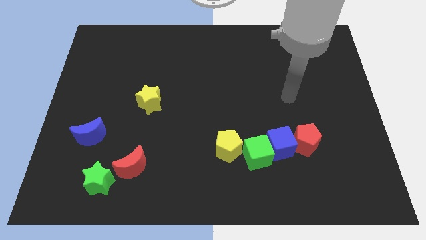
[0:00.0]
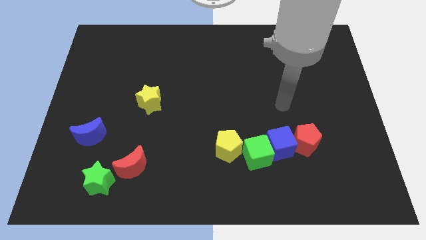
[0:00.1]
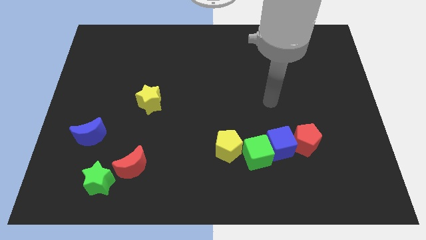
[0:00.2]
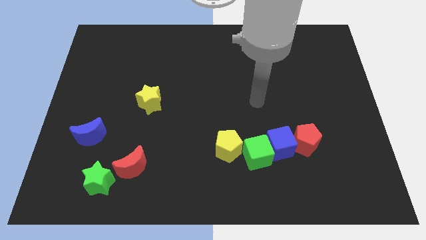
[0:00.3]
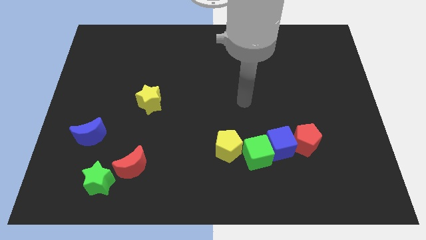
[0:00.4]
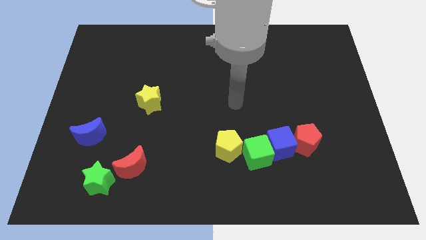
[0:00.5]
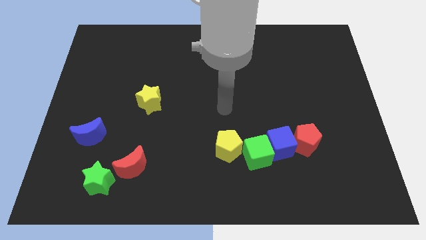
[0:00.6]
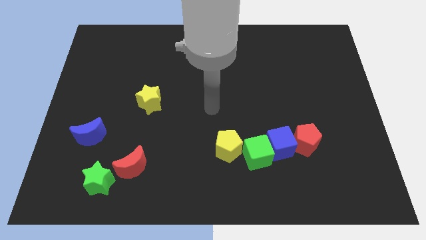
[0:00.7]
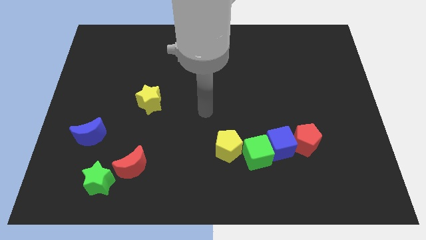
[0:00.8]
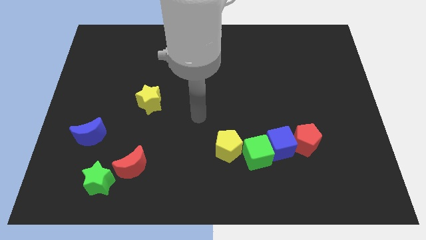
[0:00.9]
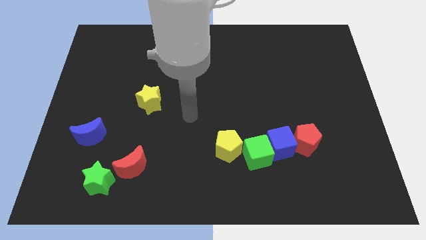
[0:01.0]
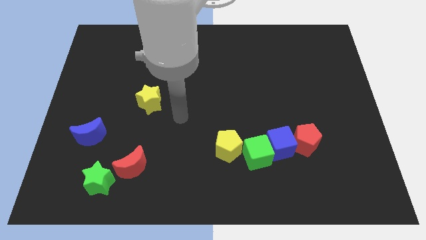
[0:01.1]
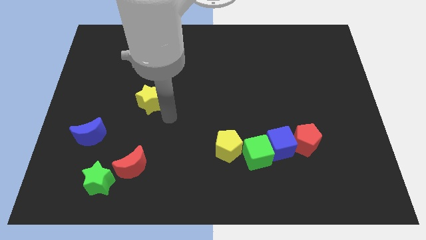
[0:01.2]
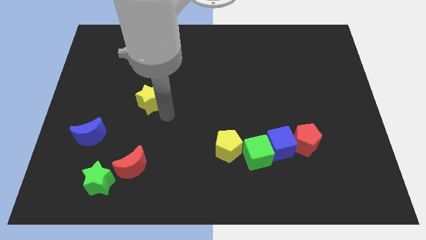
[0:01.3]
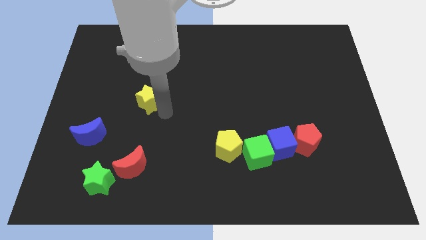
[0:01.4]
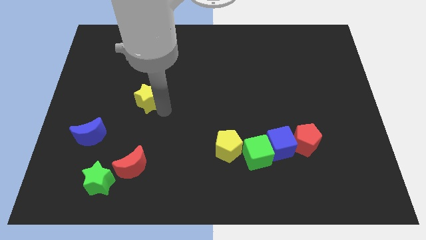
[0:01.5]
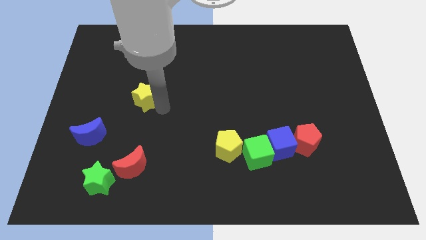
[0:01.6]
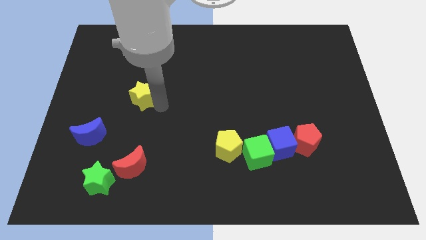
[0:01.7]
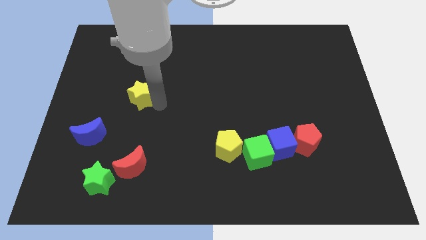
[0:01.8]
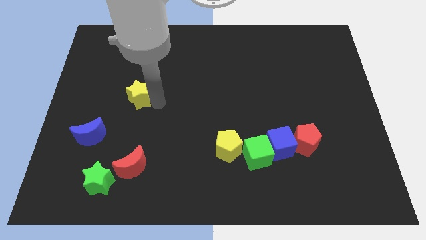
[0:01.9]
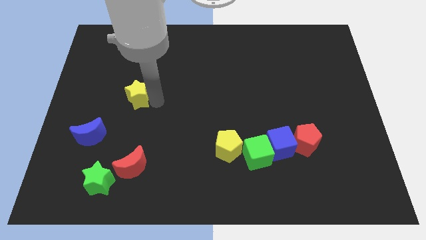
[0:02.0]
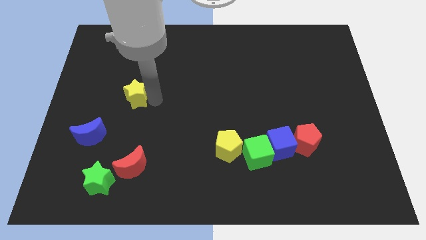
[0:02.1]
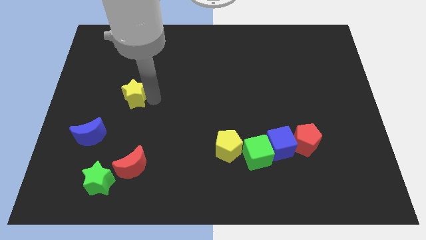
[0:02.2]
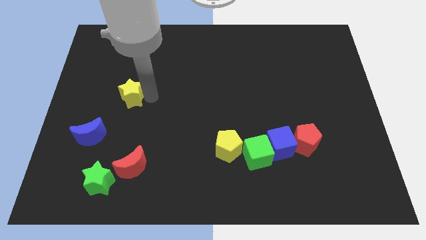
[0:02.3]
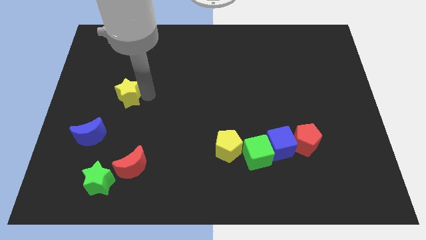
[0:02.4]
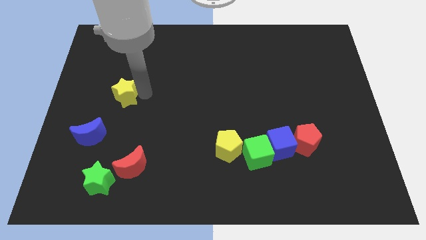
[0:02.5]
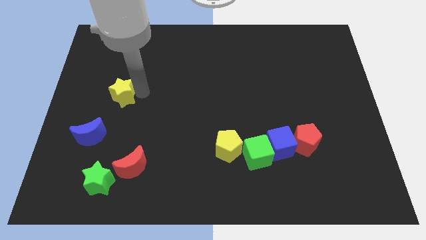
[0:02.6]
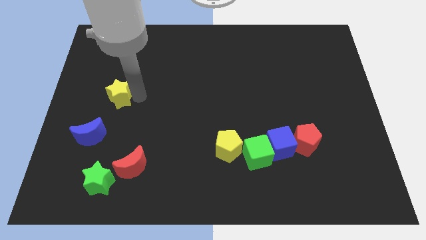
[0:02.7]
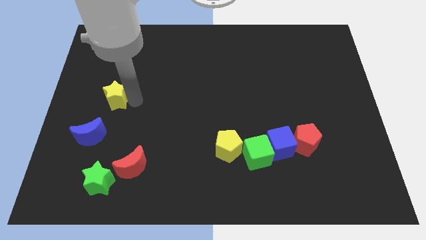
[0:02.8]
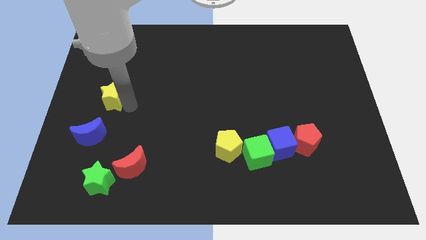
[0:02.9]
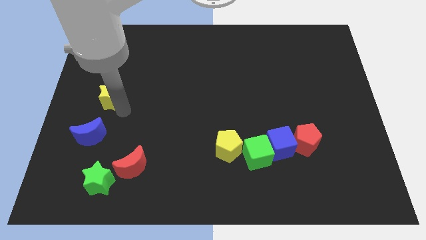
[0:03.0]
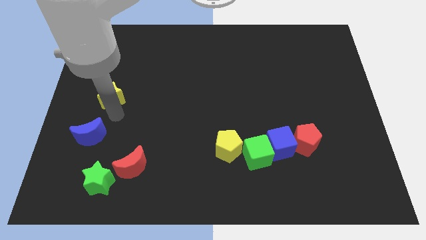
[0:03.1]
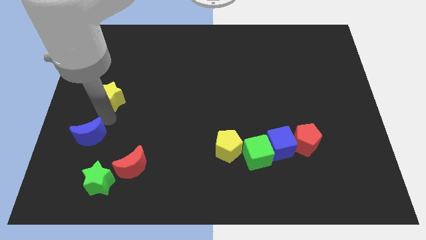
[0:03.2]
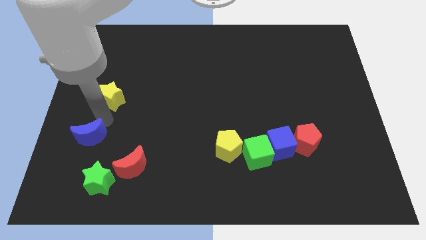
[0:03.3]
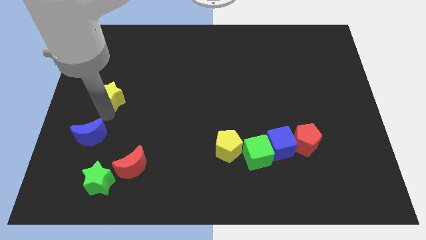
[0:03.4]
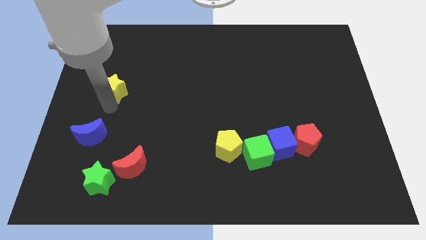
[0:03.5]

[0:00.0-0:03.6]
move the yellow star upwards and then left a little

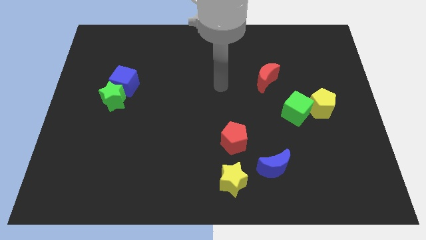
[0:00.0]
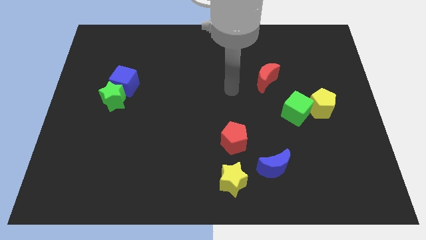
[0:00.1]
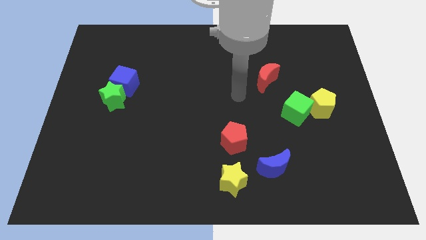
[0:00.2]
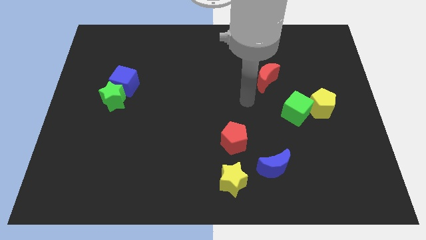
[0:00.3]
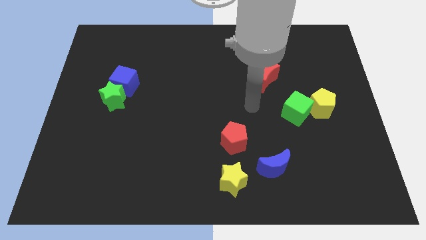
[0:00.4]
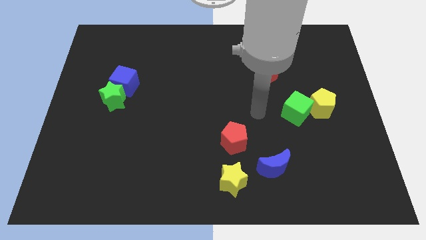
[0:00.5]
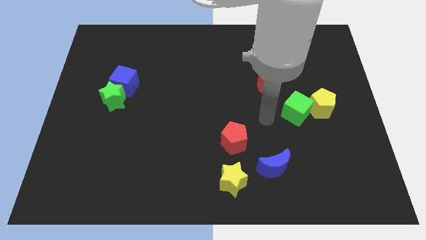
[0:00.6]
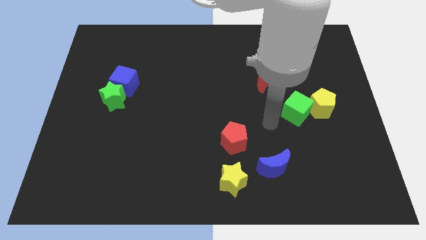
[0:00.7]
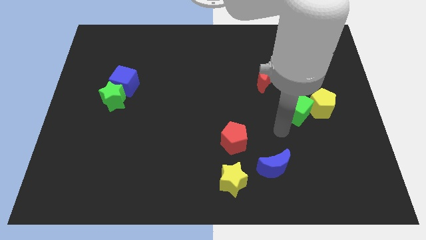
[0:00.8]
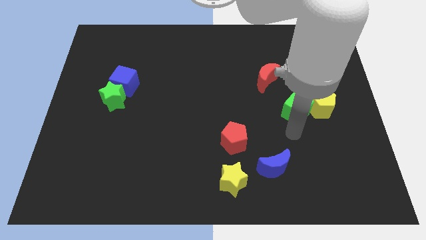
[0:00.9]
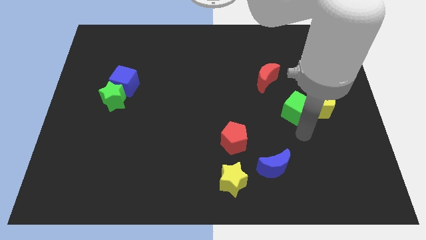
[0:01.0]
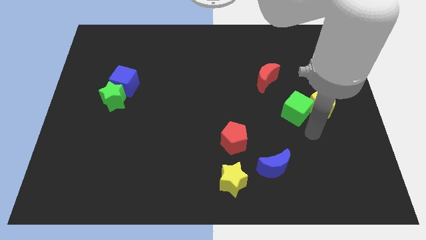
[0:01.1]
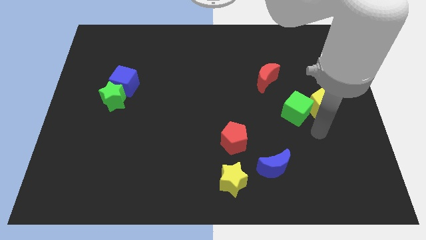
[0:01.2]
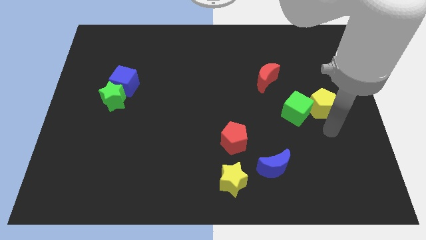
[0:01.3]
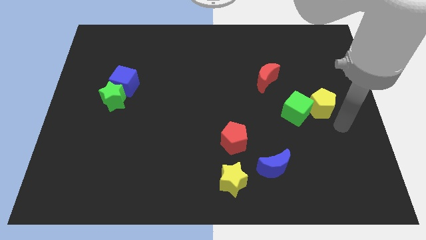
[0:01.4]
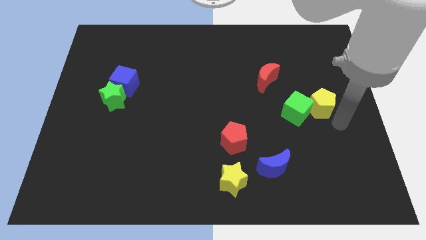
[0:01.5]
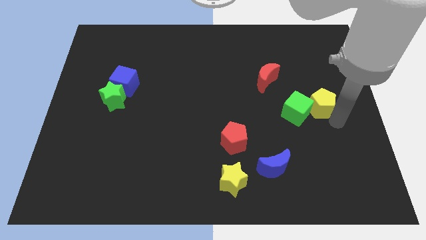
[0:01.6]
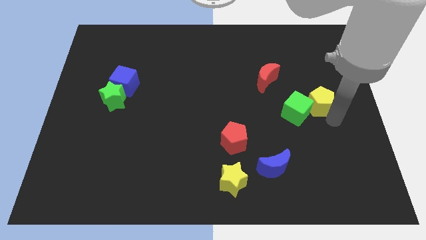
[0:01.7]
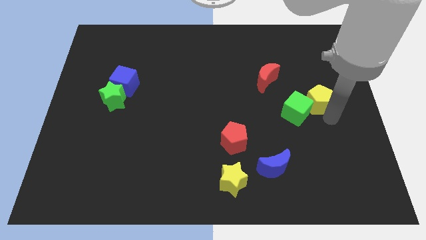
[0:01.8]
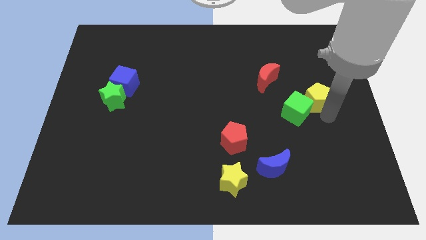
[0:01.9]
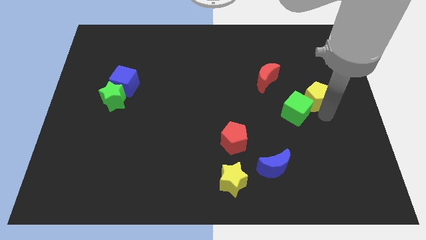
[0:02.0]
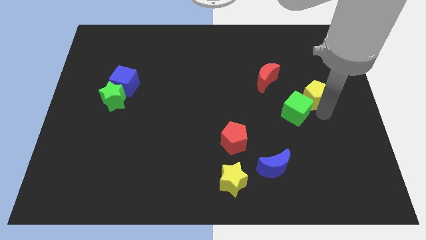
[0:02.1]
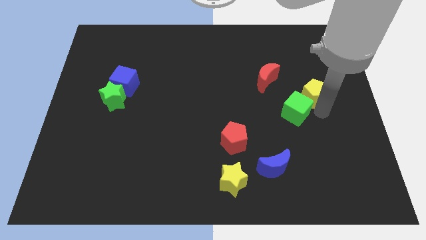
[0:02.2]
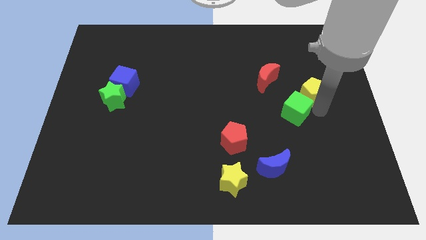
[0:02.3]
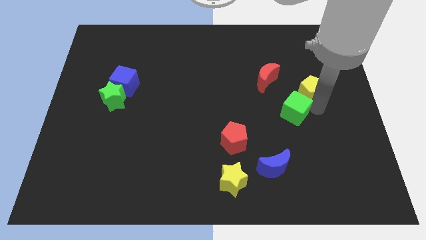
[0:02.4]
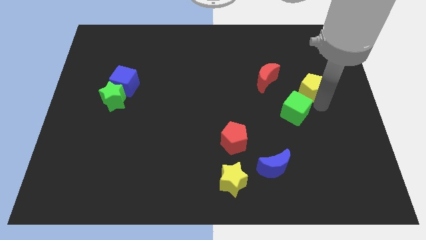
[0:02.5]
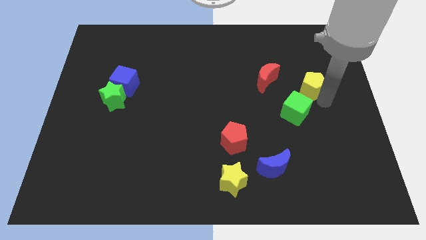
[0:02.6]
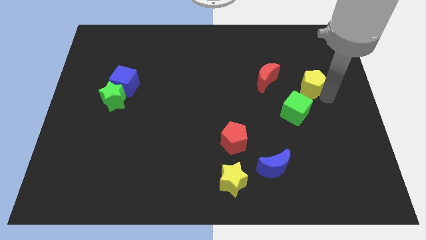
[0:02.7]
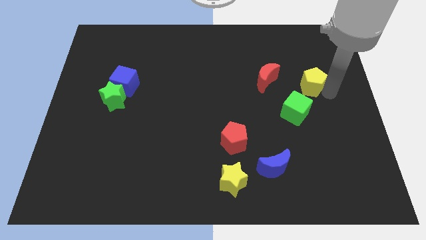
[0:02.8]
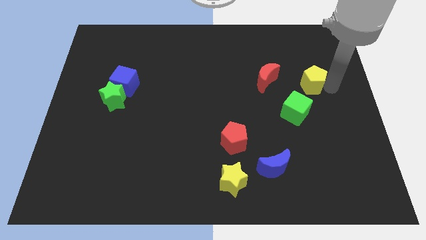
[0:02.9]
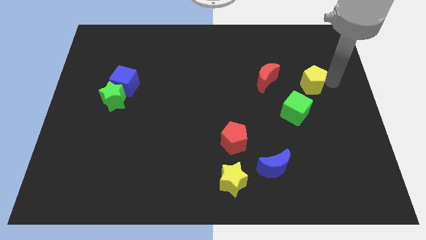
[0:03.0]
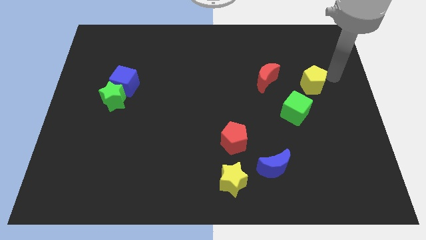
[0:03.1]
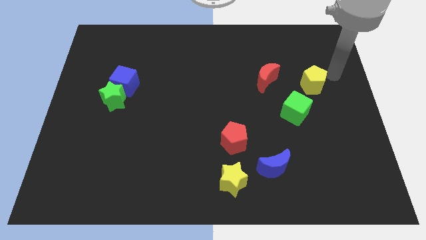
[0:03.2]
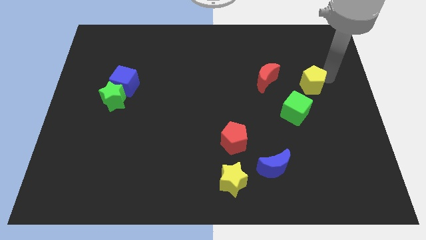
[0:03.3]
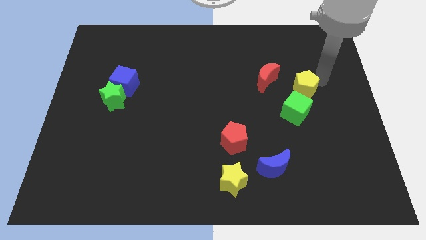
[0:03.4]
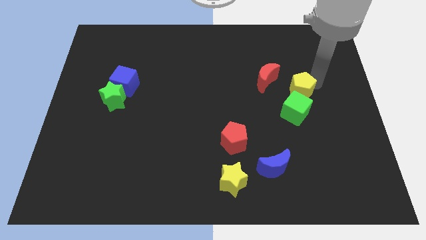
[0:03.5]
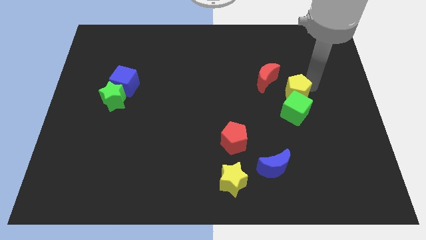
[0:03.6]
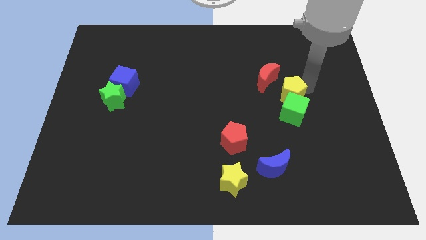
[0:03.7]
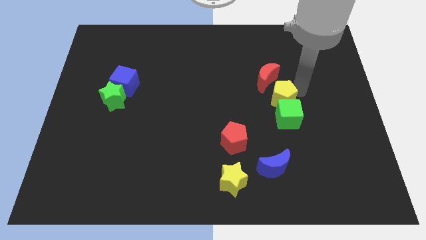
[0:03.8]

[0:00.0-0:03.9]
move the yellow pentagon slightly to the left

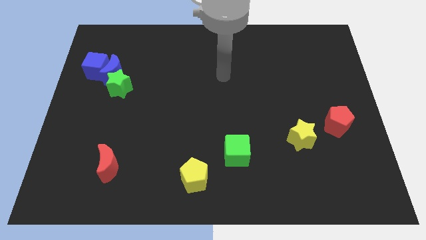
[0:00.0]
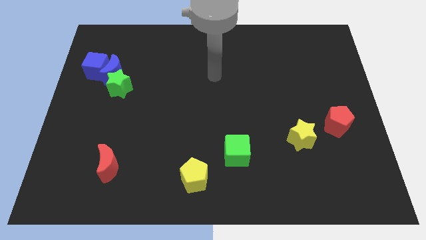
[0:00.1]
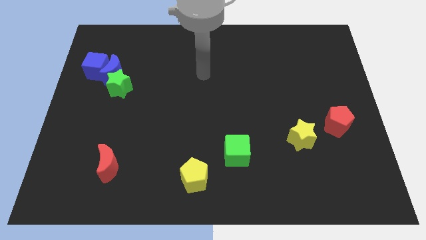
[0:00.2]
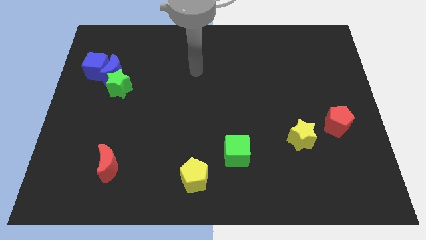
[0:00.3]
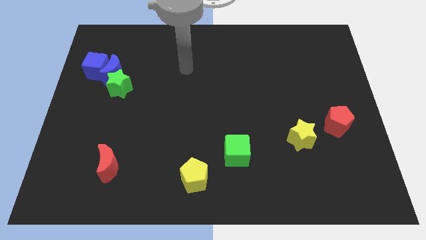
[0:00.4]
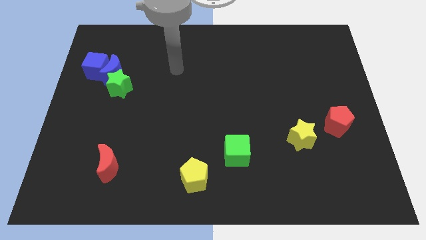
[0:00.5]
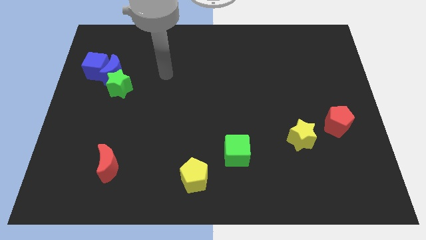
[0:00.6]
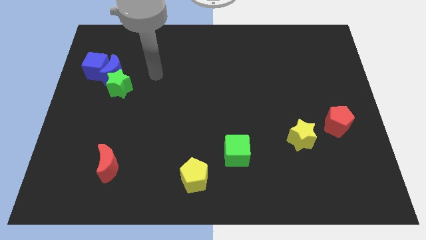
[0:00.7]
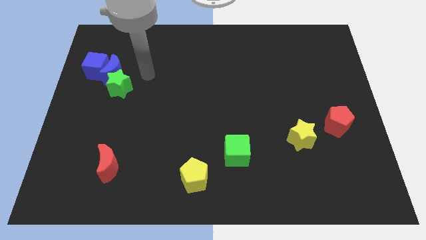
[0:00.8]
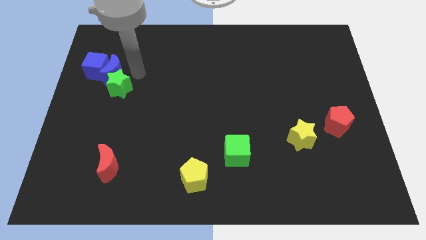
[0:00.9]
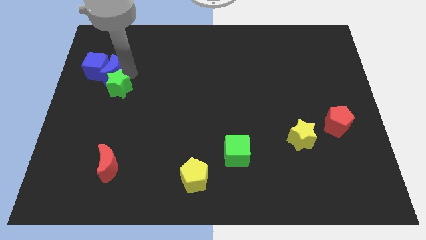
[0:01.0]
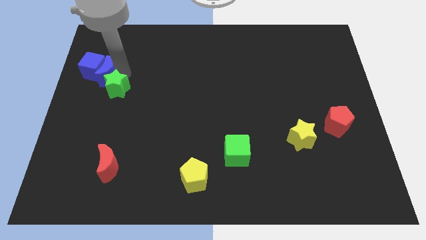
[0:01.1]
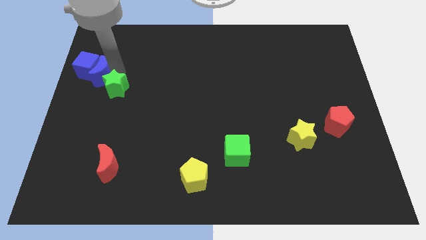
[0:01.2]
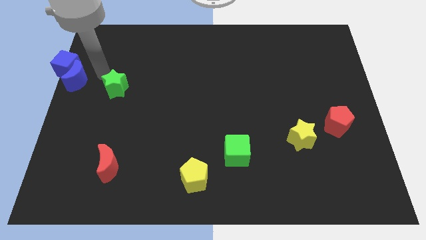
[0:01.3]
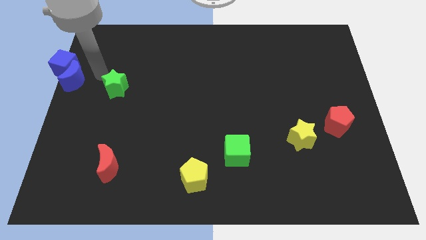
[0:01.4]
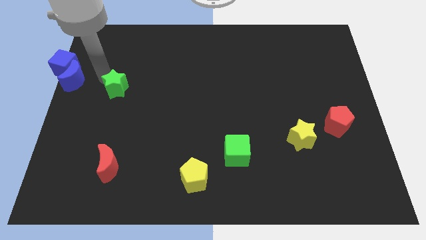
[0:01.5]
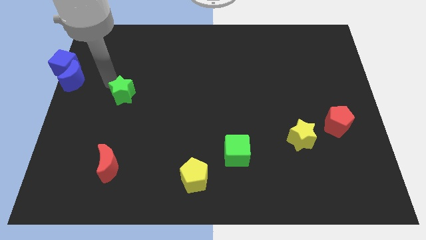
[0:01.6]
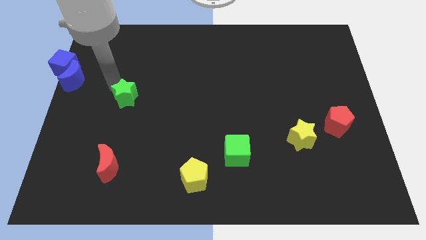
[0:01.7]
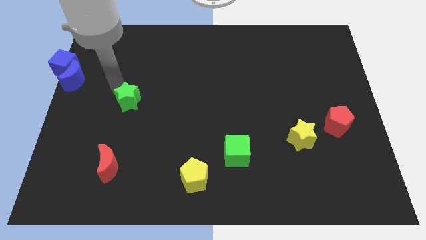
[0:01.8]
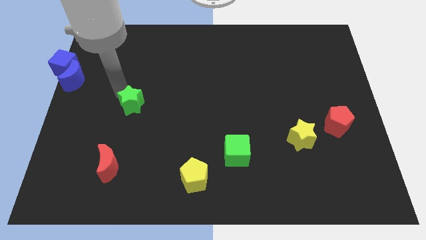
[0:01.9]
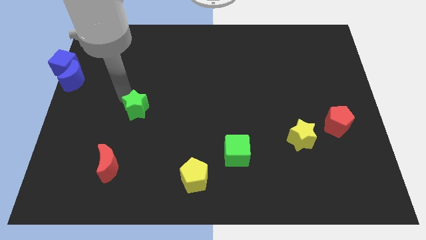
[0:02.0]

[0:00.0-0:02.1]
move the green star down and to the right somewhat
